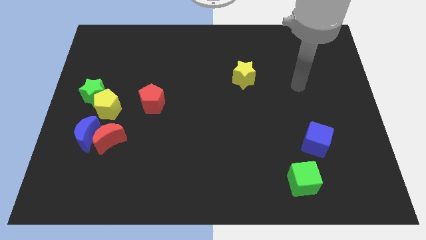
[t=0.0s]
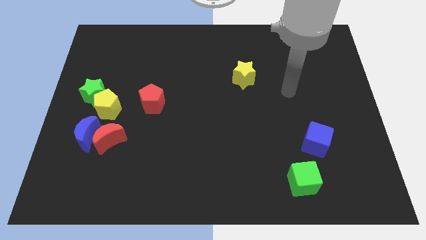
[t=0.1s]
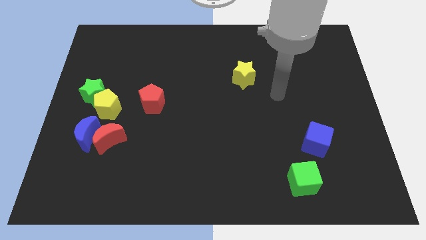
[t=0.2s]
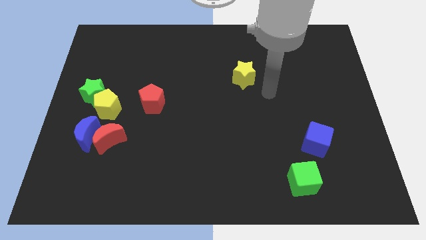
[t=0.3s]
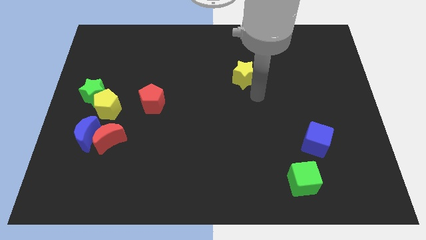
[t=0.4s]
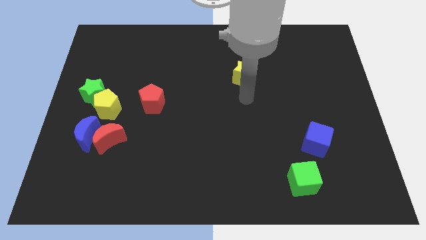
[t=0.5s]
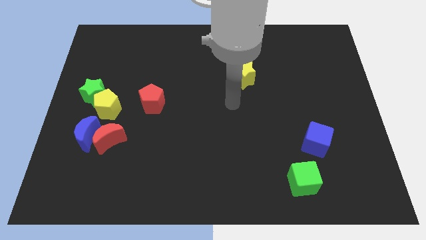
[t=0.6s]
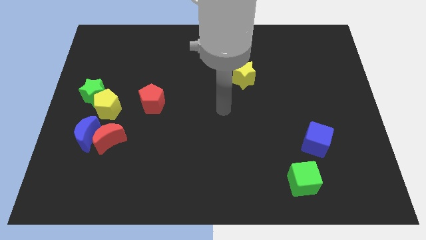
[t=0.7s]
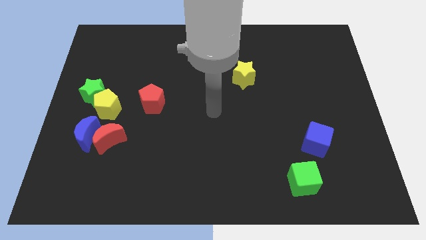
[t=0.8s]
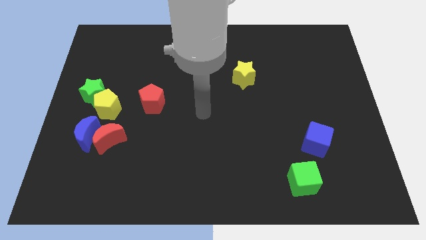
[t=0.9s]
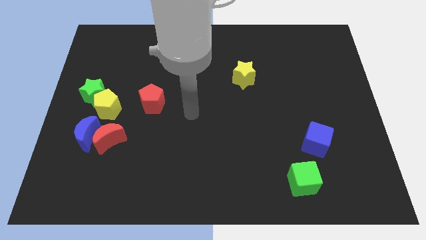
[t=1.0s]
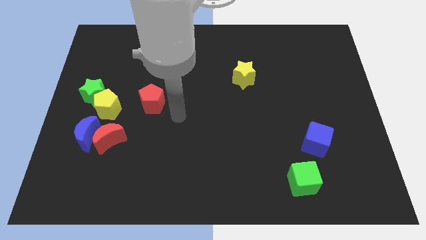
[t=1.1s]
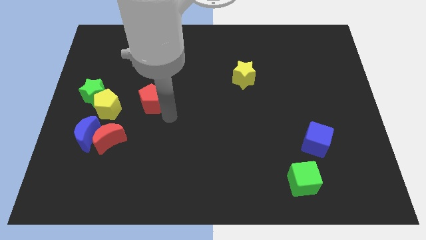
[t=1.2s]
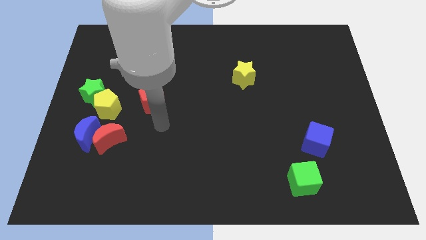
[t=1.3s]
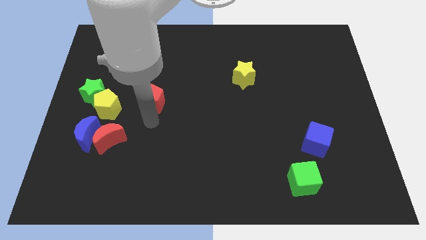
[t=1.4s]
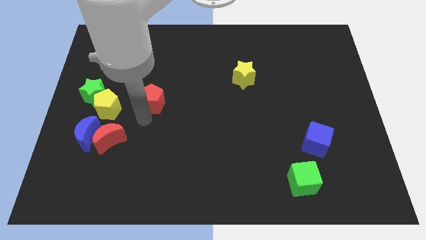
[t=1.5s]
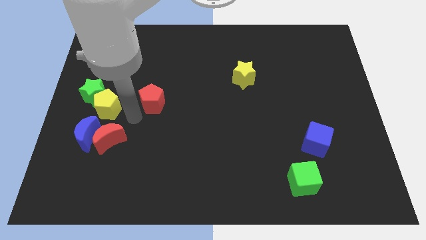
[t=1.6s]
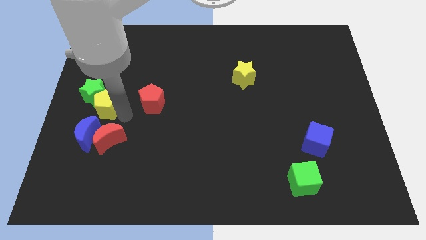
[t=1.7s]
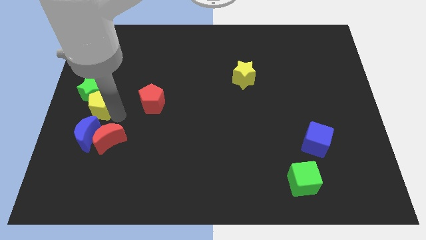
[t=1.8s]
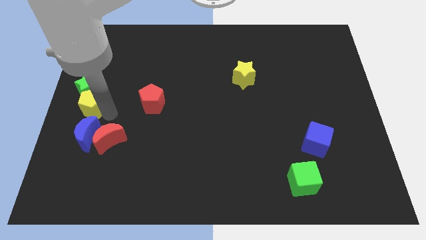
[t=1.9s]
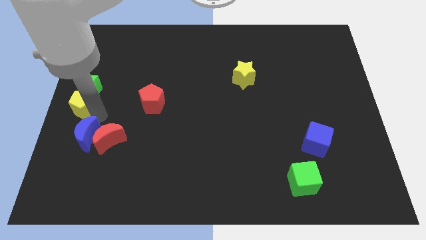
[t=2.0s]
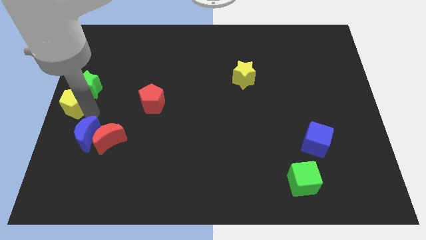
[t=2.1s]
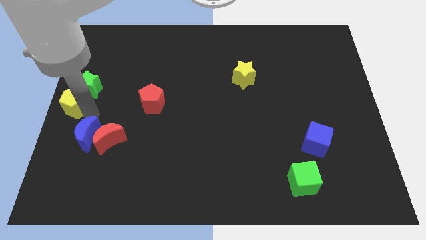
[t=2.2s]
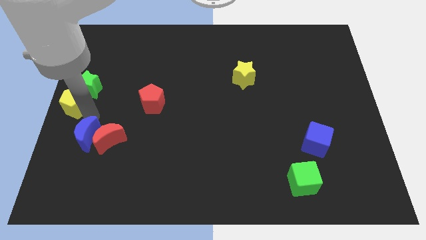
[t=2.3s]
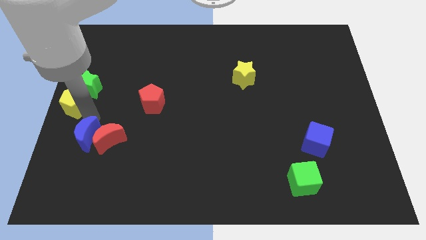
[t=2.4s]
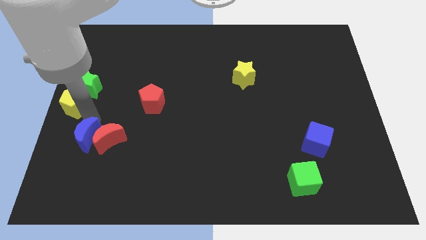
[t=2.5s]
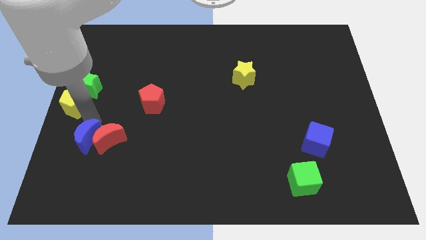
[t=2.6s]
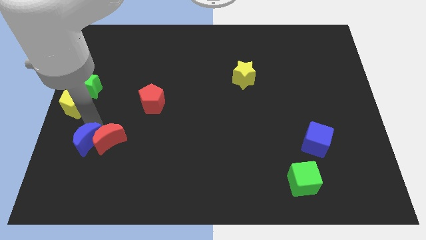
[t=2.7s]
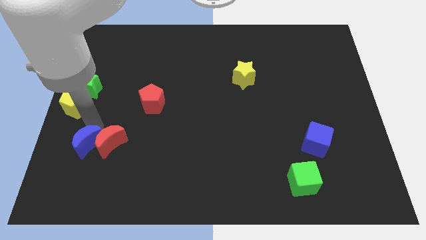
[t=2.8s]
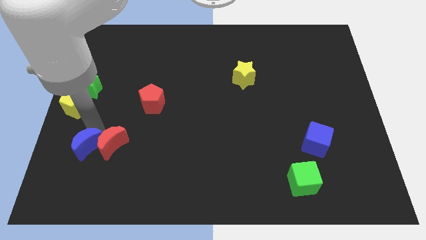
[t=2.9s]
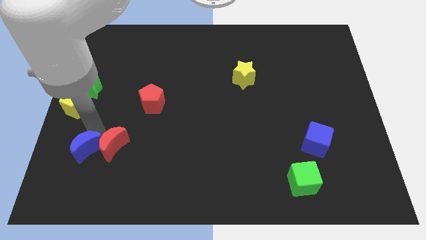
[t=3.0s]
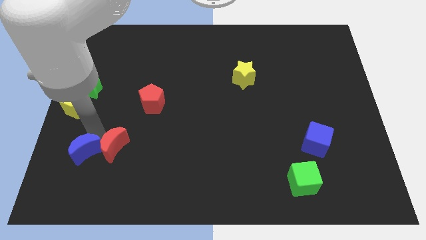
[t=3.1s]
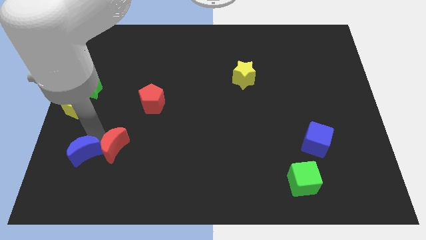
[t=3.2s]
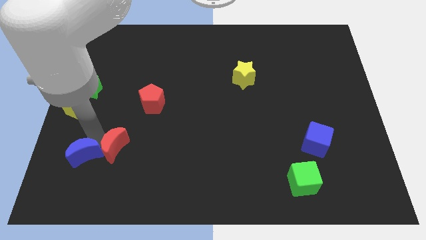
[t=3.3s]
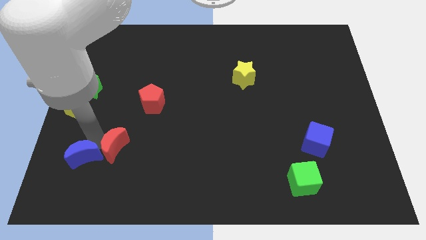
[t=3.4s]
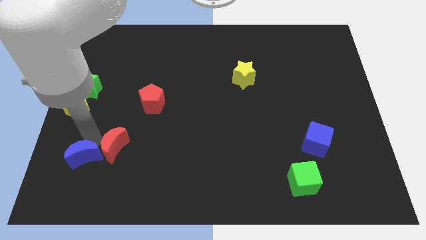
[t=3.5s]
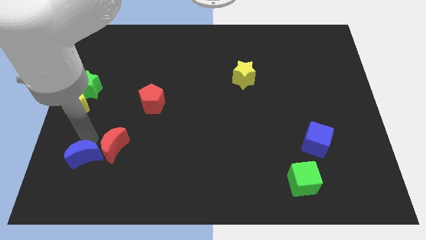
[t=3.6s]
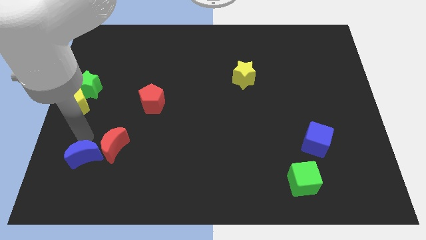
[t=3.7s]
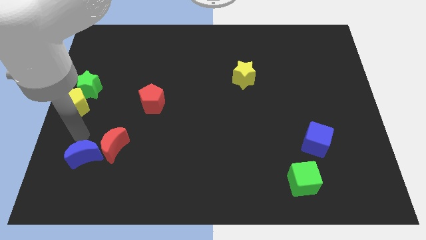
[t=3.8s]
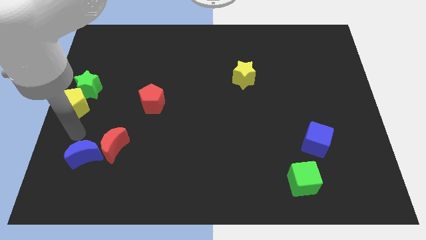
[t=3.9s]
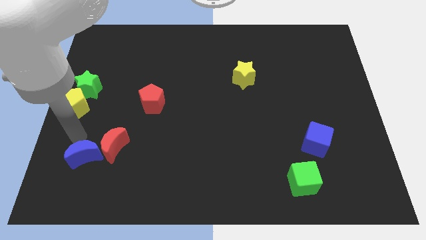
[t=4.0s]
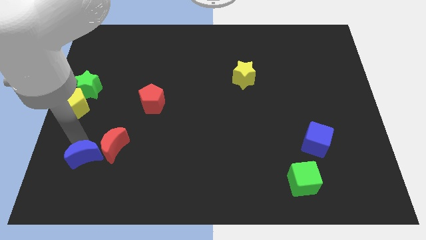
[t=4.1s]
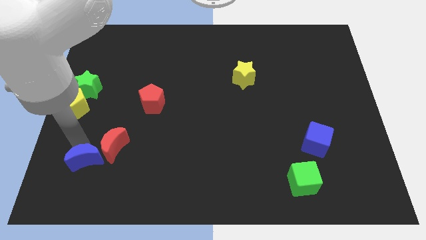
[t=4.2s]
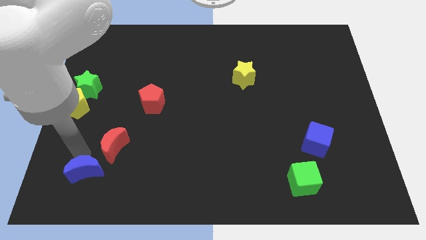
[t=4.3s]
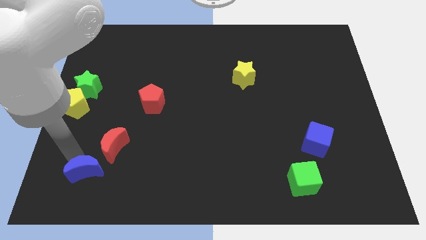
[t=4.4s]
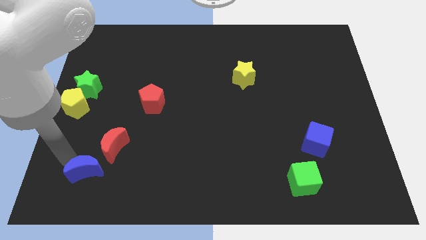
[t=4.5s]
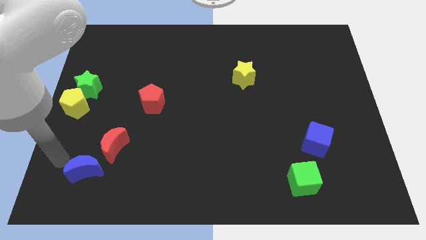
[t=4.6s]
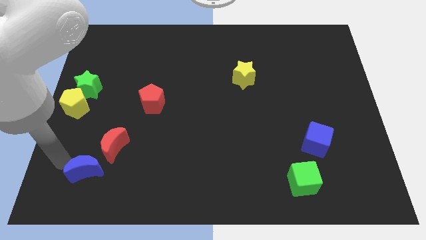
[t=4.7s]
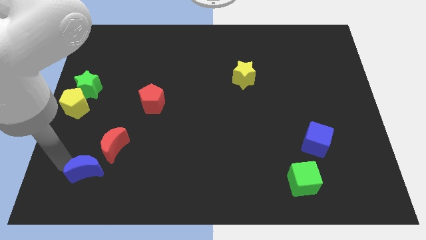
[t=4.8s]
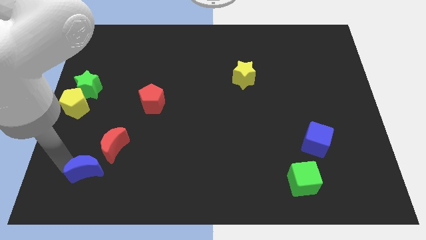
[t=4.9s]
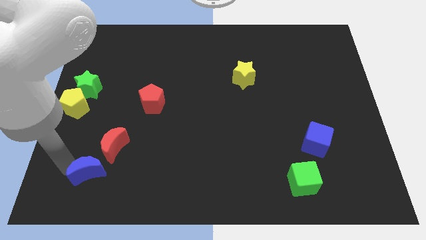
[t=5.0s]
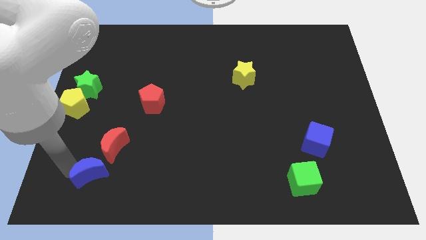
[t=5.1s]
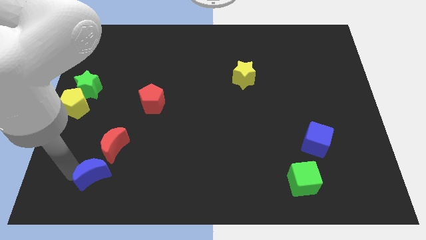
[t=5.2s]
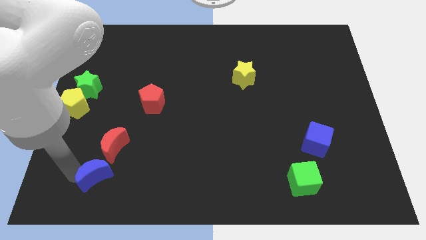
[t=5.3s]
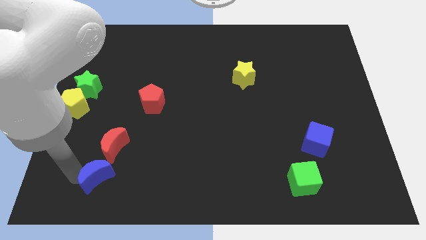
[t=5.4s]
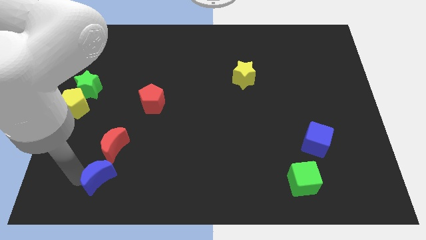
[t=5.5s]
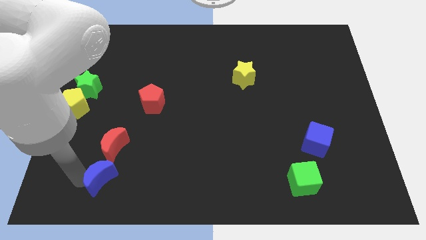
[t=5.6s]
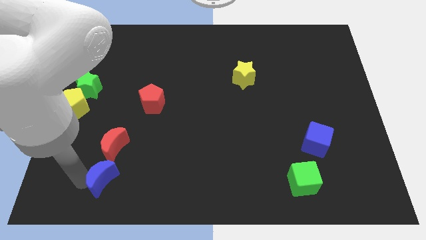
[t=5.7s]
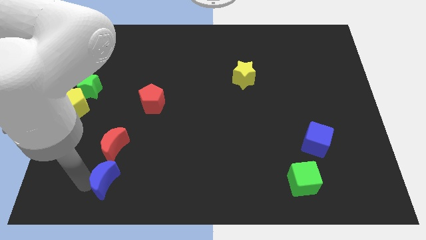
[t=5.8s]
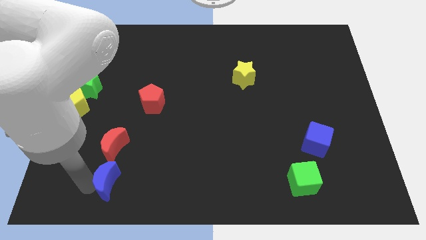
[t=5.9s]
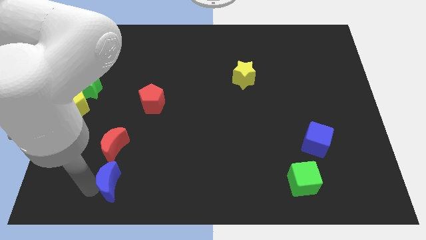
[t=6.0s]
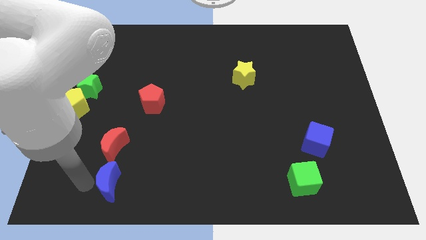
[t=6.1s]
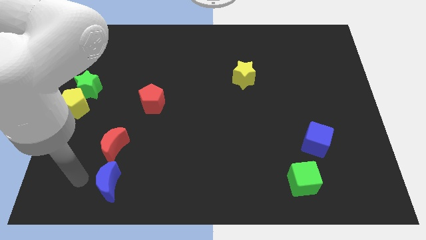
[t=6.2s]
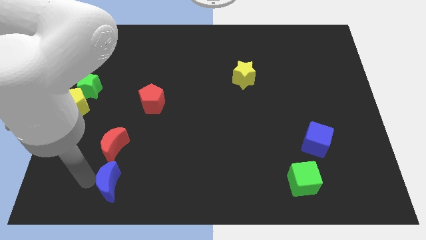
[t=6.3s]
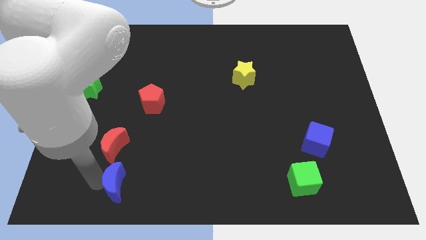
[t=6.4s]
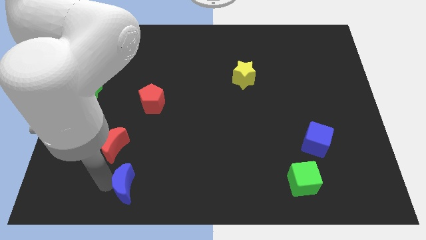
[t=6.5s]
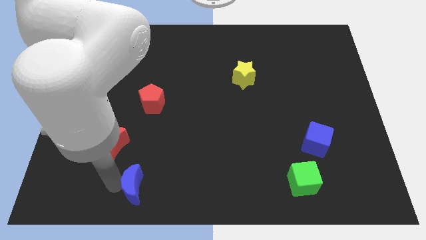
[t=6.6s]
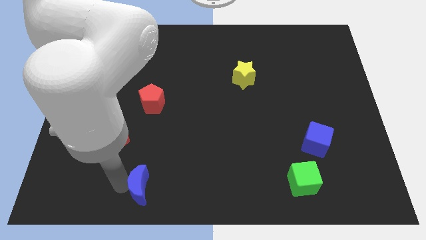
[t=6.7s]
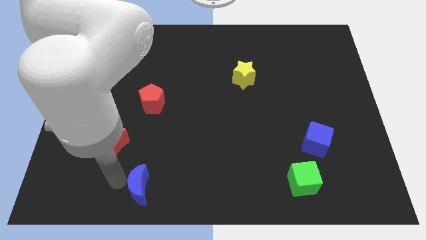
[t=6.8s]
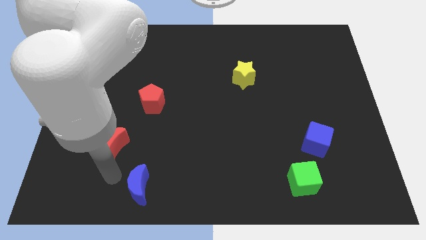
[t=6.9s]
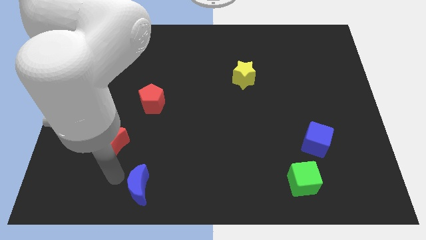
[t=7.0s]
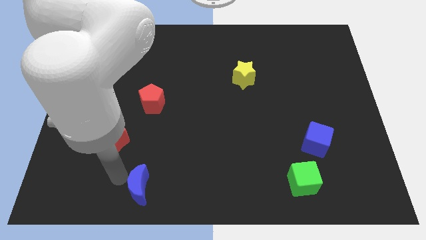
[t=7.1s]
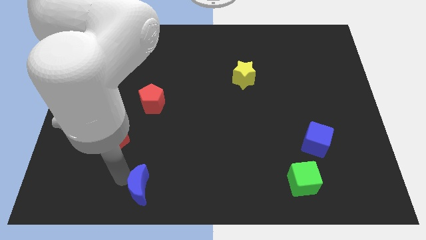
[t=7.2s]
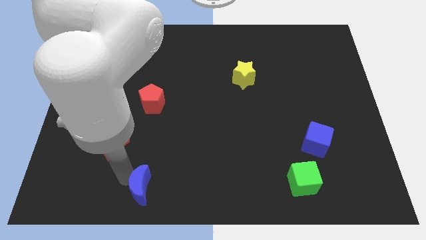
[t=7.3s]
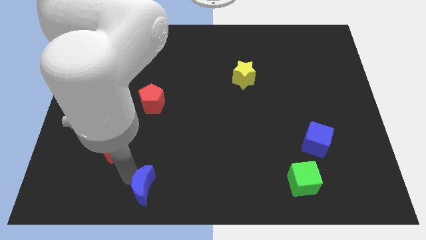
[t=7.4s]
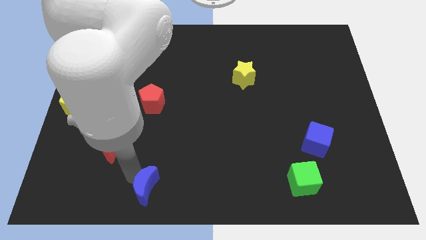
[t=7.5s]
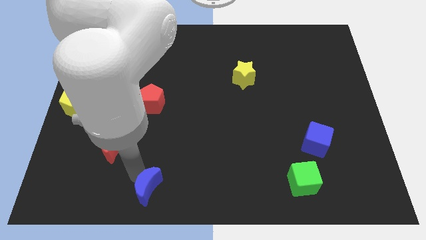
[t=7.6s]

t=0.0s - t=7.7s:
move the blue moon to the bottom side
